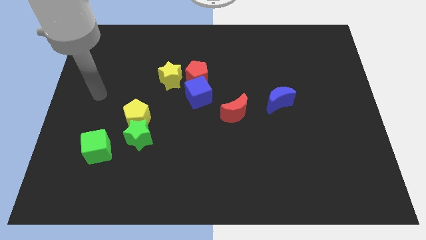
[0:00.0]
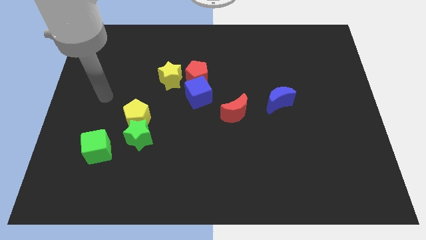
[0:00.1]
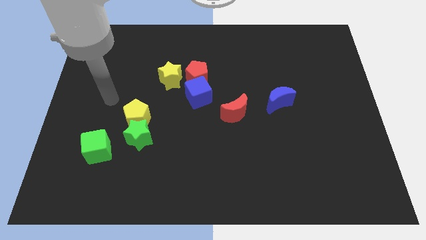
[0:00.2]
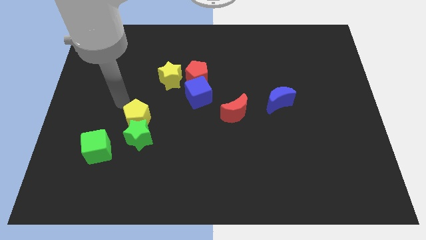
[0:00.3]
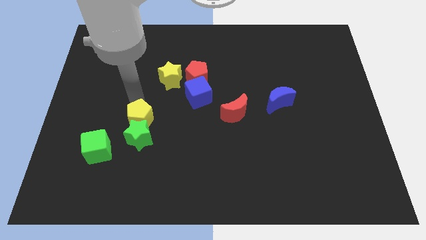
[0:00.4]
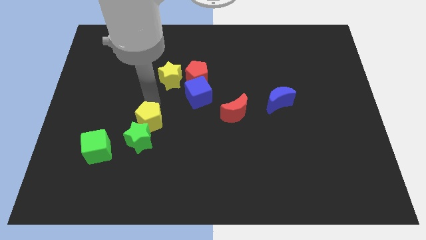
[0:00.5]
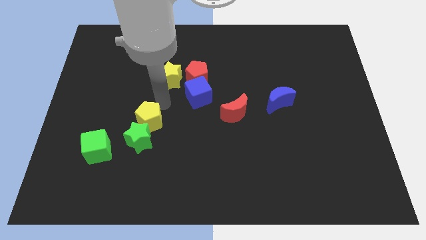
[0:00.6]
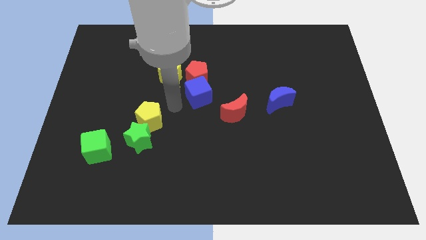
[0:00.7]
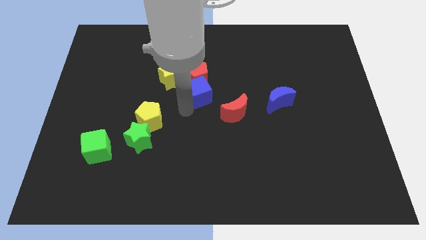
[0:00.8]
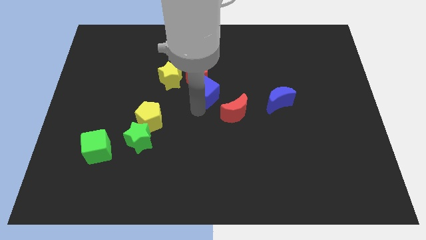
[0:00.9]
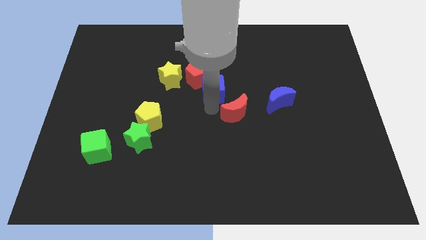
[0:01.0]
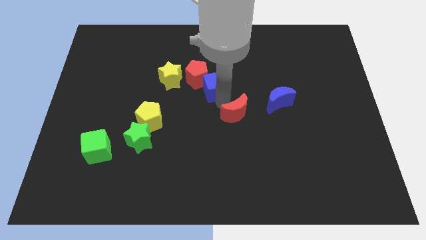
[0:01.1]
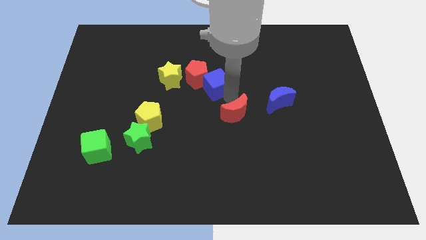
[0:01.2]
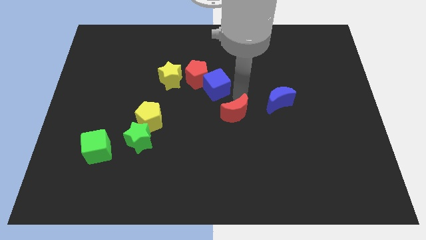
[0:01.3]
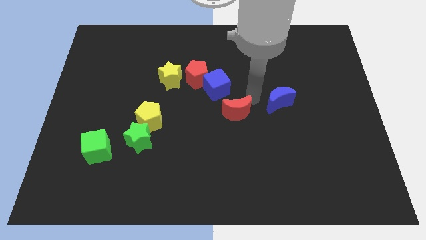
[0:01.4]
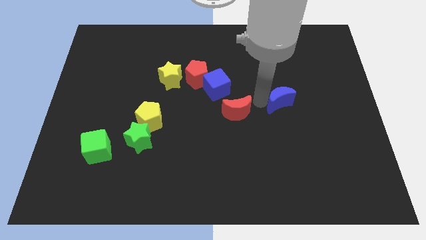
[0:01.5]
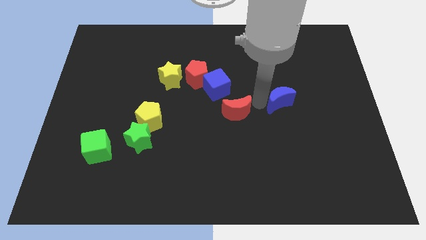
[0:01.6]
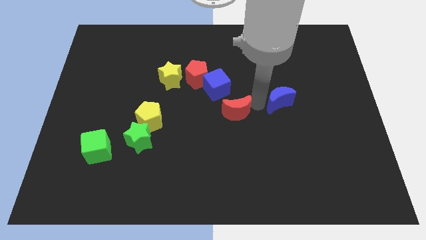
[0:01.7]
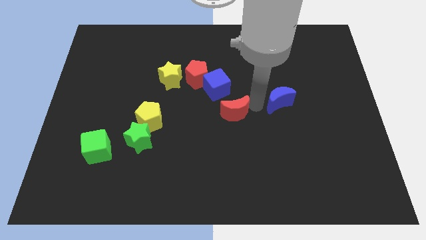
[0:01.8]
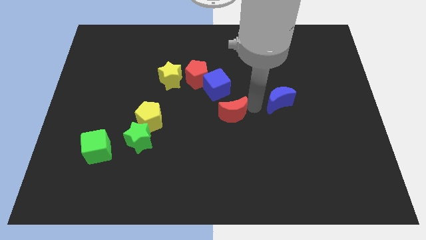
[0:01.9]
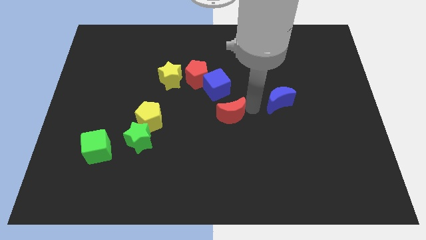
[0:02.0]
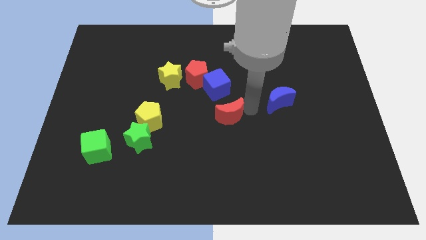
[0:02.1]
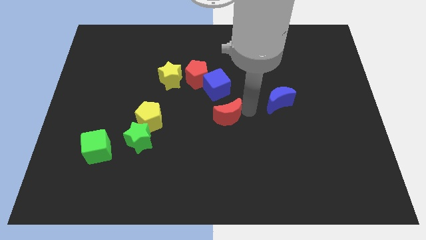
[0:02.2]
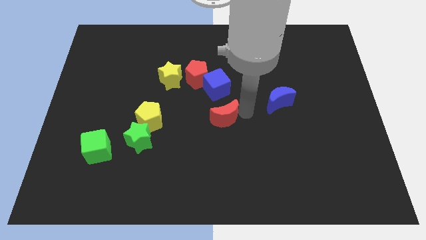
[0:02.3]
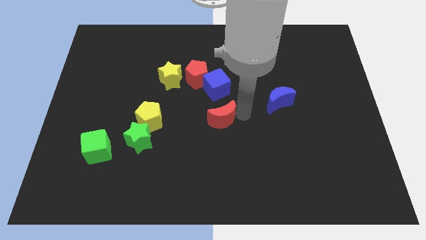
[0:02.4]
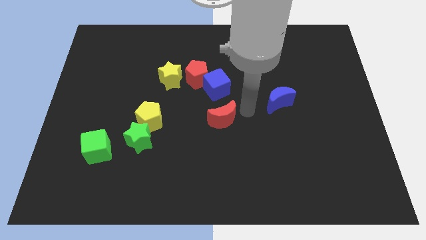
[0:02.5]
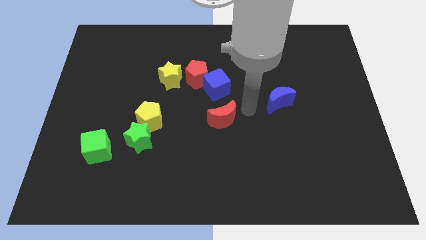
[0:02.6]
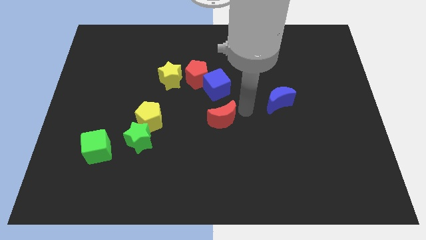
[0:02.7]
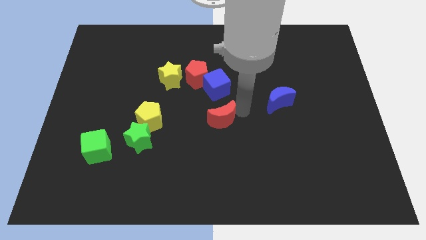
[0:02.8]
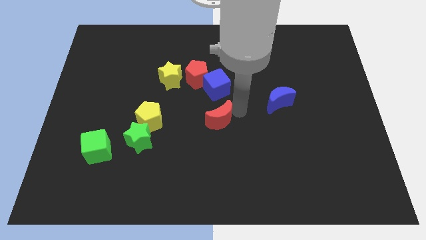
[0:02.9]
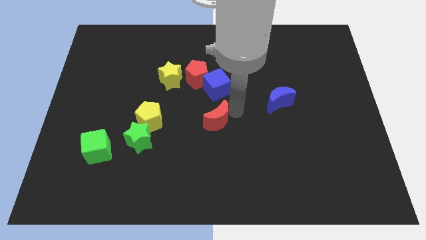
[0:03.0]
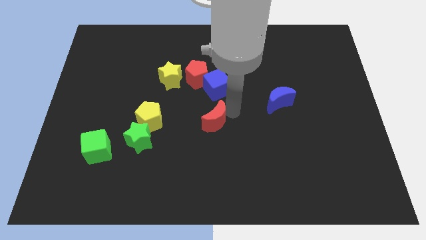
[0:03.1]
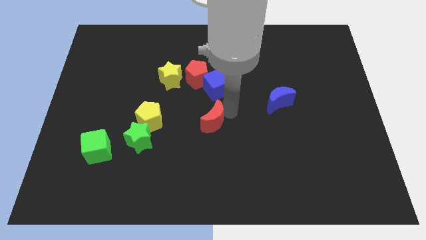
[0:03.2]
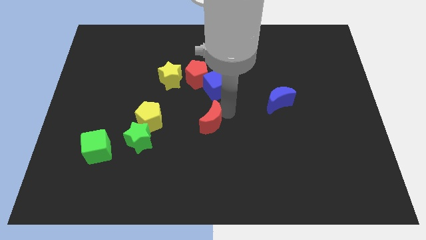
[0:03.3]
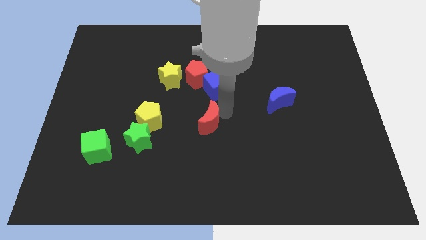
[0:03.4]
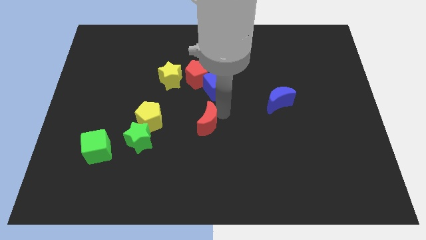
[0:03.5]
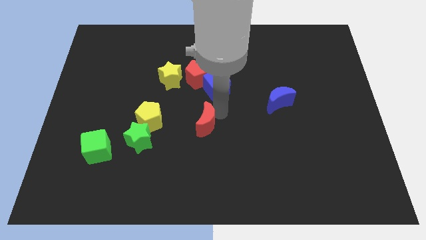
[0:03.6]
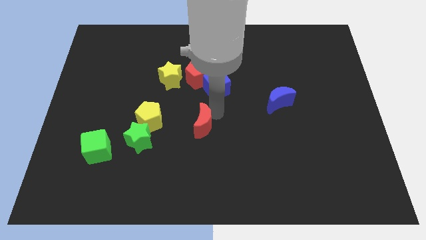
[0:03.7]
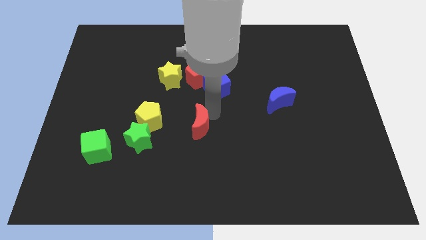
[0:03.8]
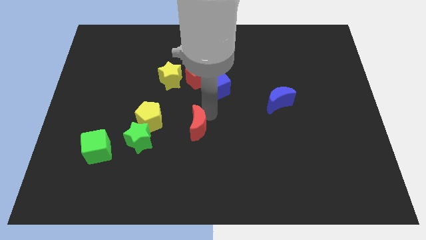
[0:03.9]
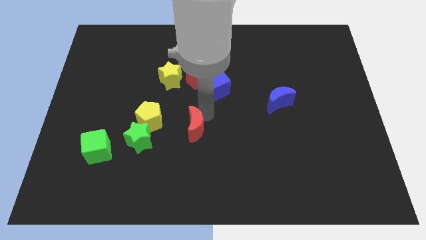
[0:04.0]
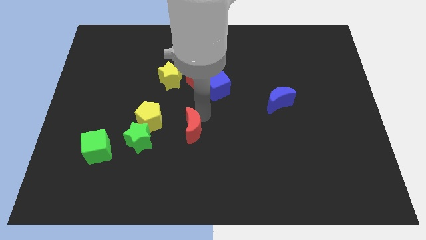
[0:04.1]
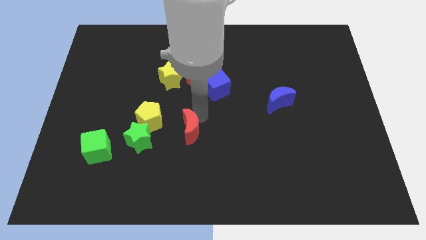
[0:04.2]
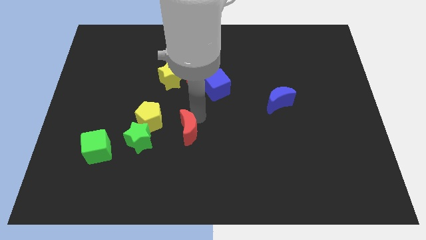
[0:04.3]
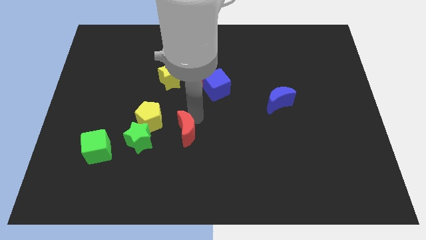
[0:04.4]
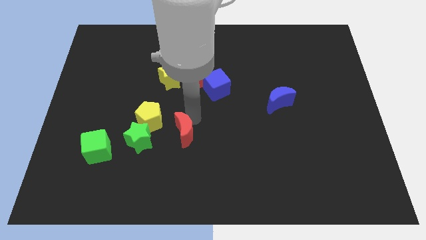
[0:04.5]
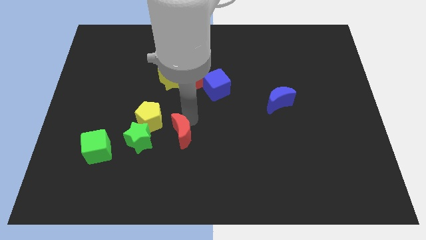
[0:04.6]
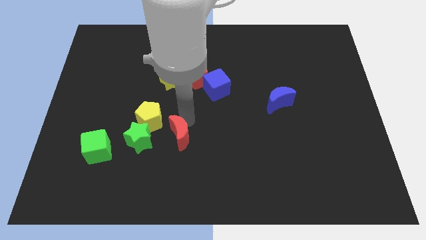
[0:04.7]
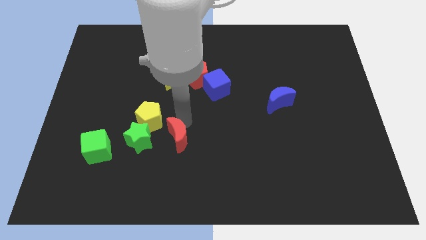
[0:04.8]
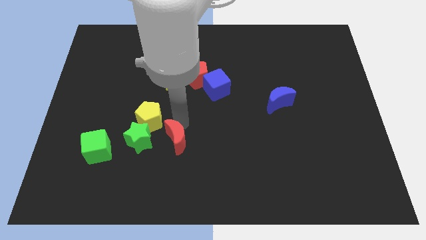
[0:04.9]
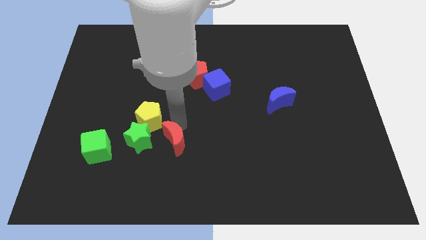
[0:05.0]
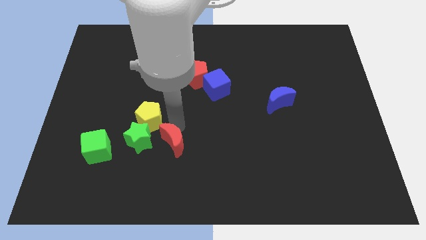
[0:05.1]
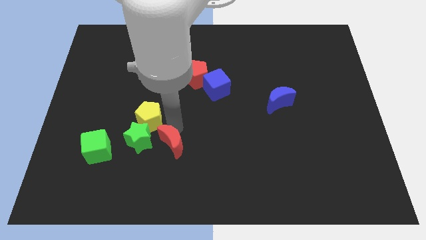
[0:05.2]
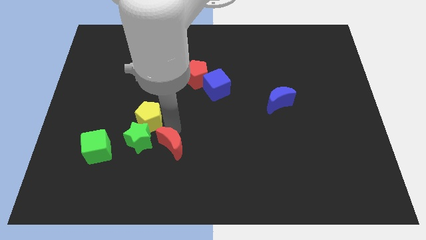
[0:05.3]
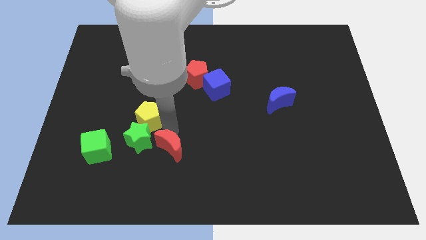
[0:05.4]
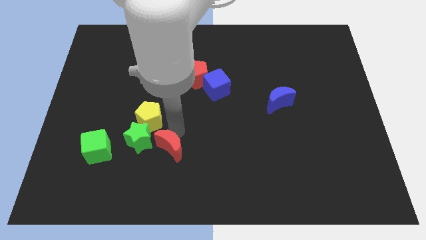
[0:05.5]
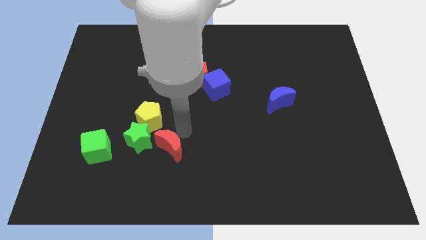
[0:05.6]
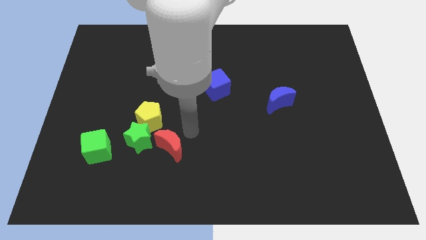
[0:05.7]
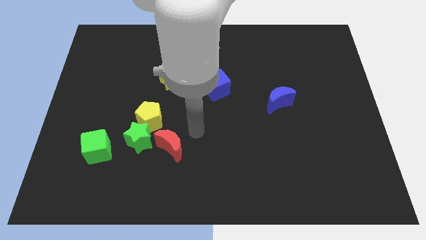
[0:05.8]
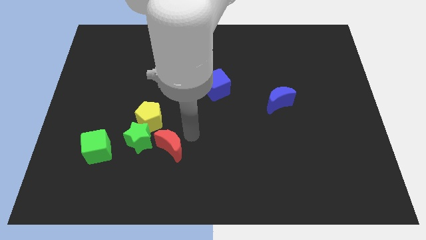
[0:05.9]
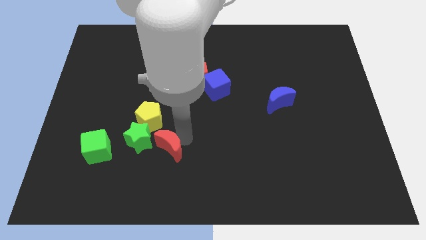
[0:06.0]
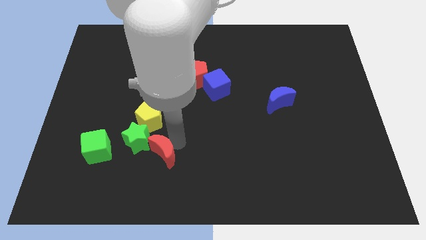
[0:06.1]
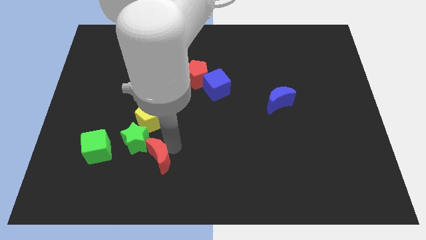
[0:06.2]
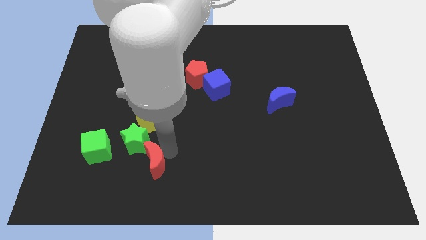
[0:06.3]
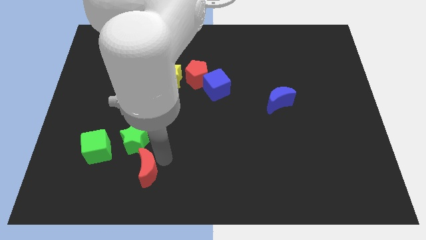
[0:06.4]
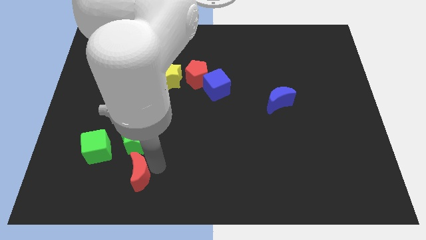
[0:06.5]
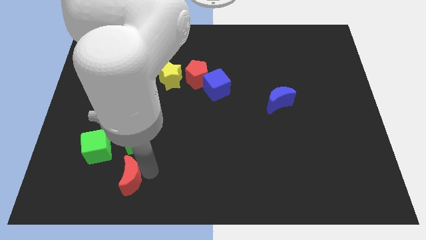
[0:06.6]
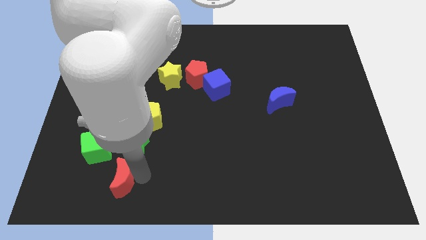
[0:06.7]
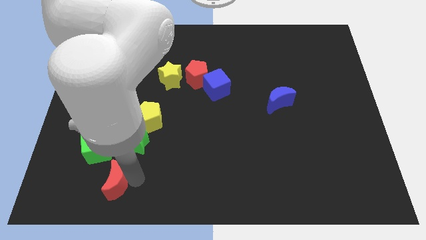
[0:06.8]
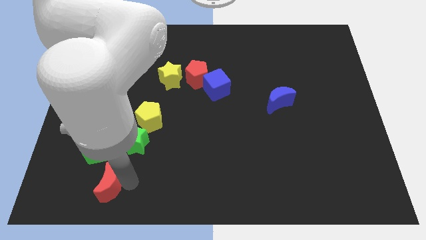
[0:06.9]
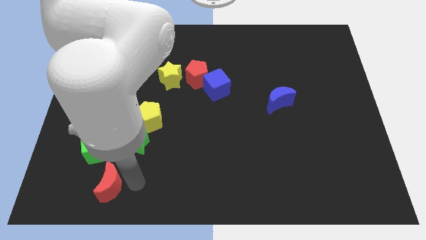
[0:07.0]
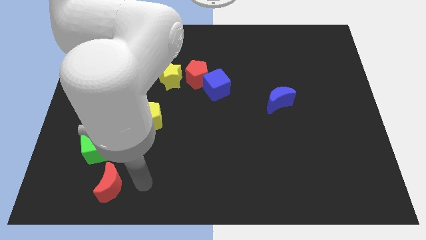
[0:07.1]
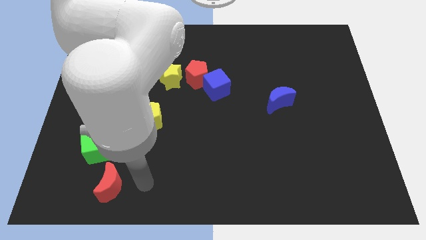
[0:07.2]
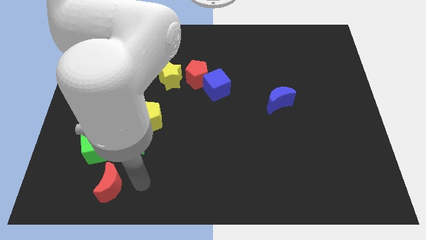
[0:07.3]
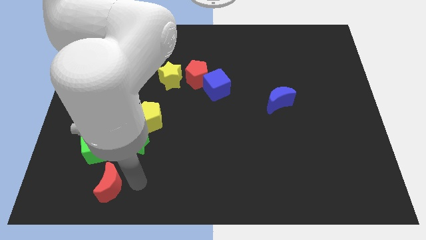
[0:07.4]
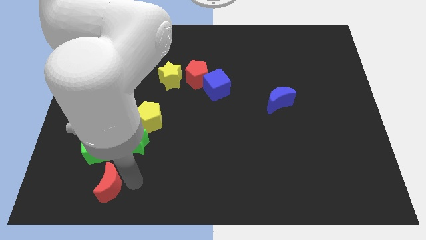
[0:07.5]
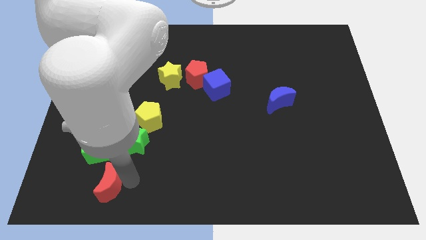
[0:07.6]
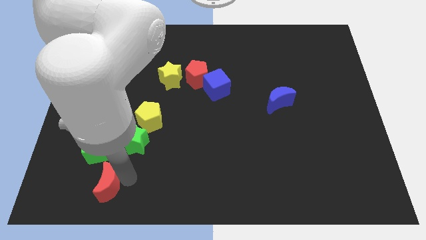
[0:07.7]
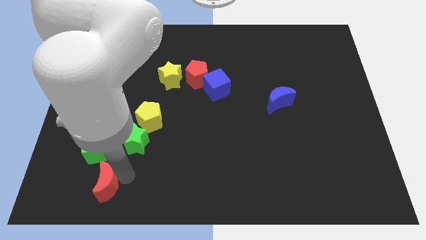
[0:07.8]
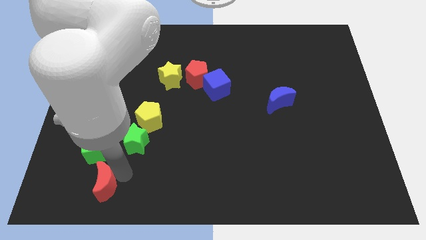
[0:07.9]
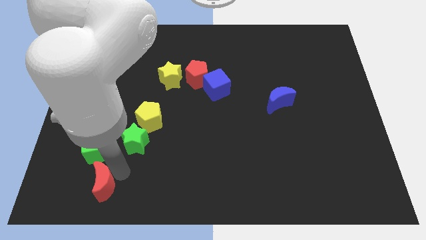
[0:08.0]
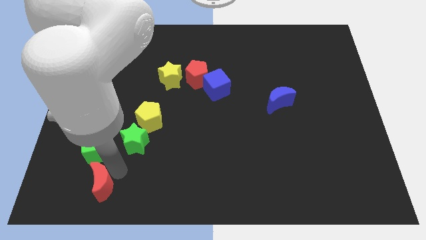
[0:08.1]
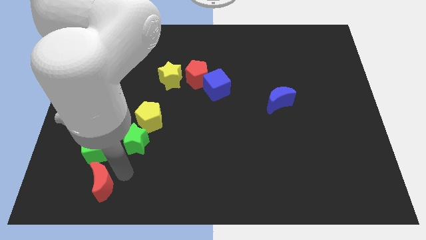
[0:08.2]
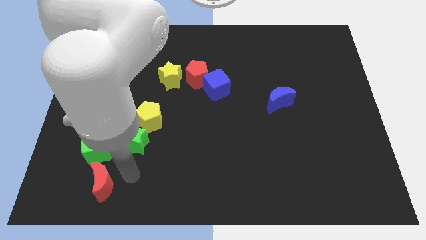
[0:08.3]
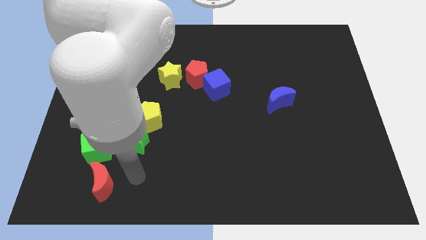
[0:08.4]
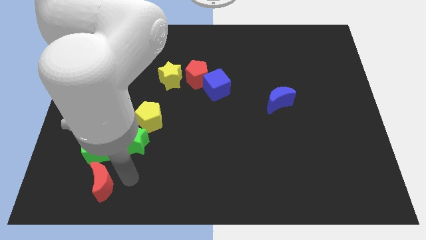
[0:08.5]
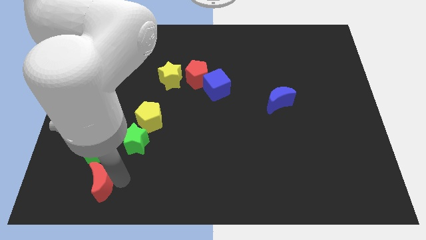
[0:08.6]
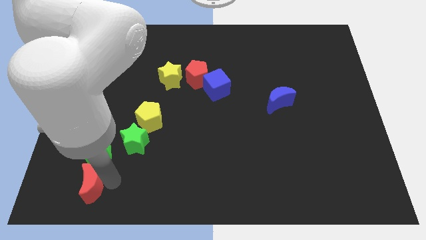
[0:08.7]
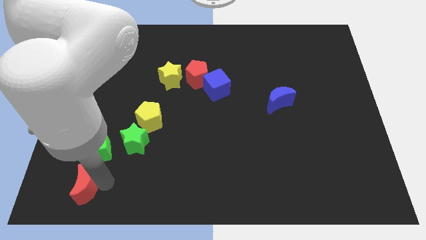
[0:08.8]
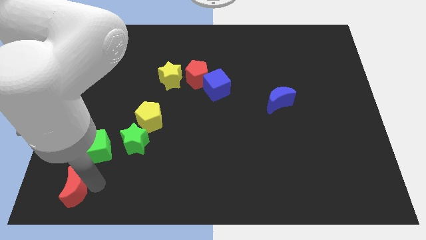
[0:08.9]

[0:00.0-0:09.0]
move the red moon to the bottom left of the board
